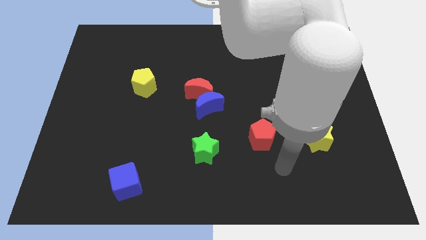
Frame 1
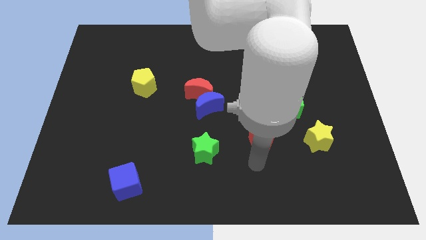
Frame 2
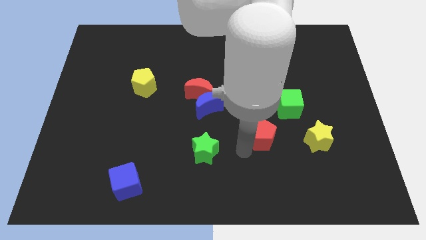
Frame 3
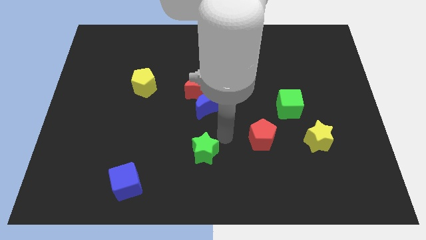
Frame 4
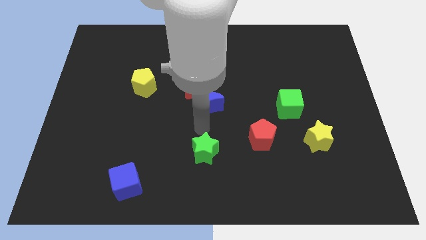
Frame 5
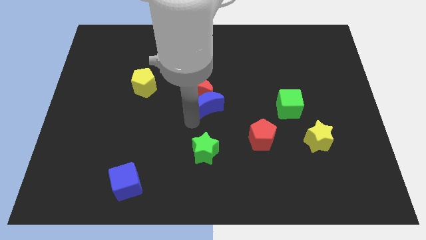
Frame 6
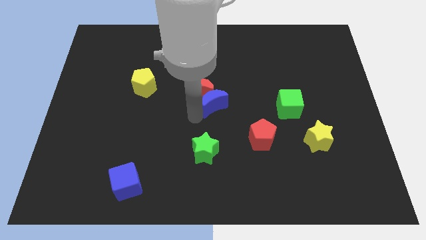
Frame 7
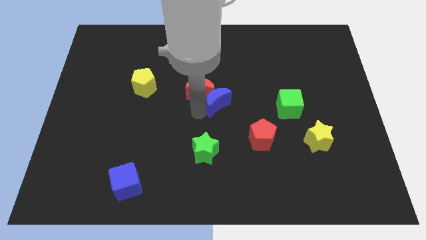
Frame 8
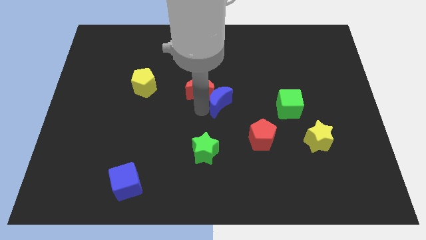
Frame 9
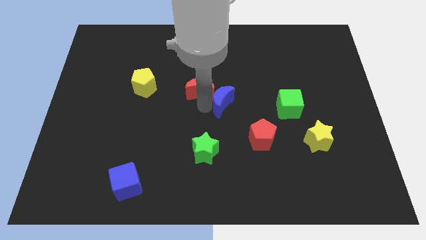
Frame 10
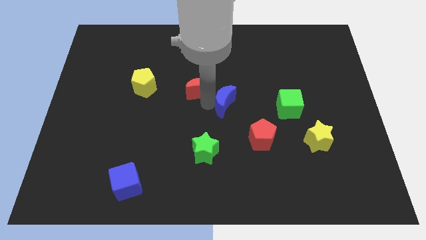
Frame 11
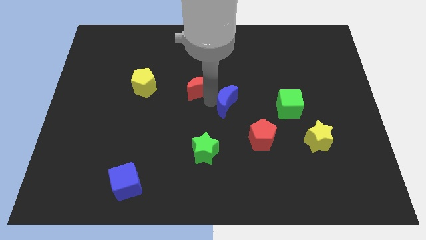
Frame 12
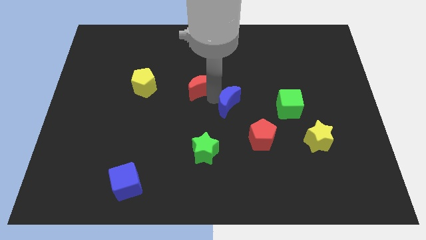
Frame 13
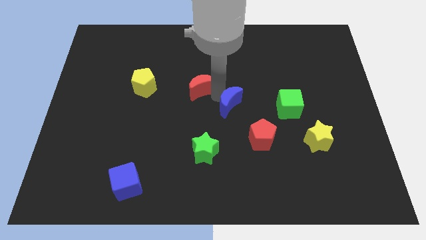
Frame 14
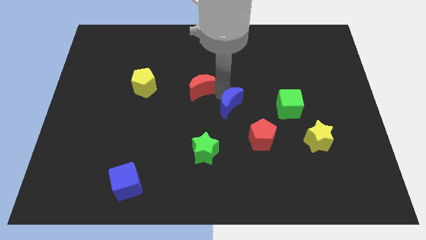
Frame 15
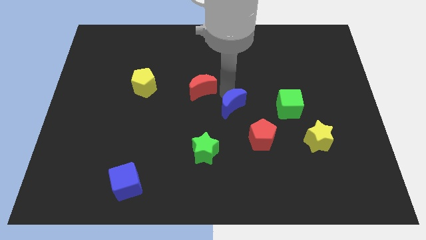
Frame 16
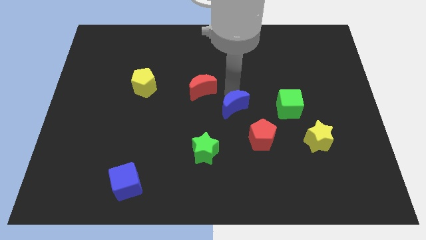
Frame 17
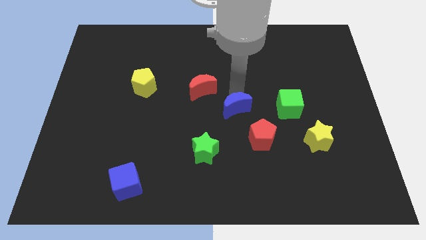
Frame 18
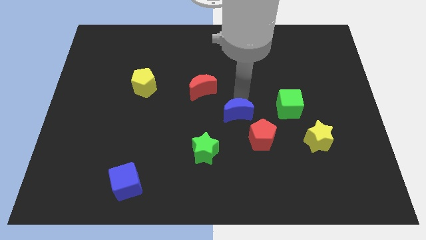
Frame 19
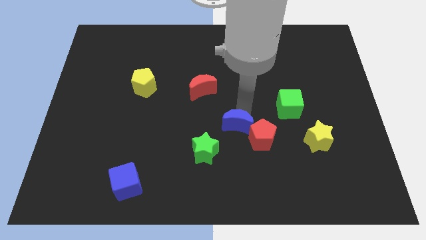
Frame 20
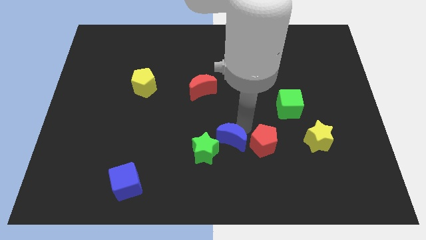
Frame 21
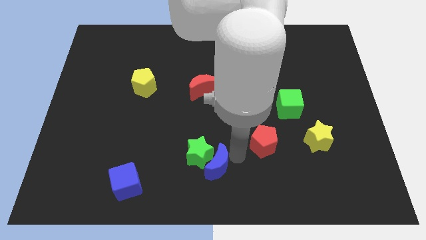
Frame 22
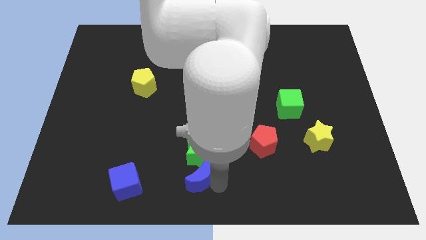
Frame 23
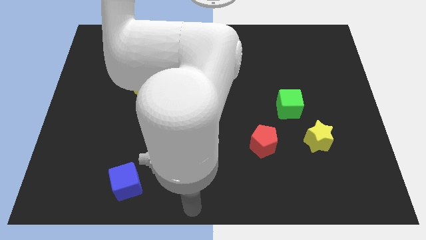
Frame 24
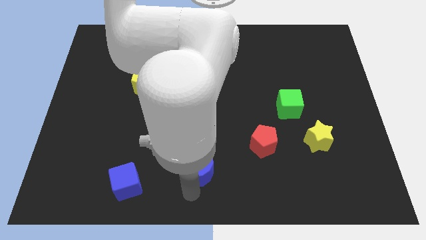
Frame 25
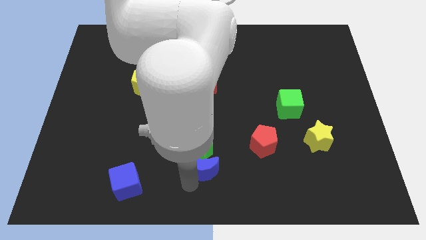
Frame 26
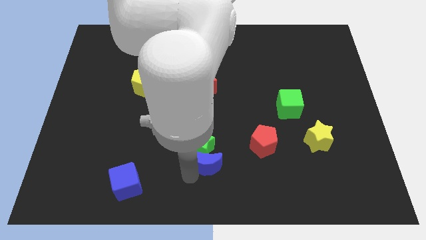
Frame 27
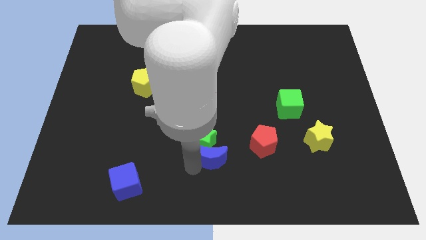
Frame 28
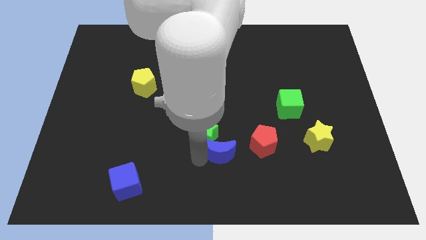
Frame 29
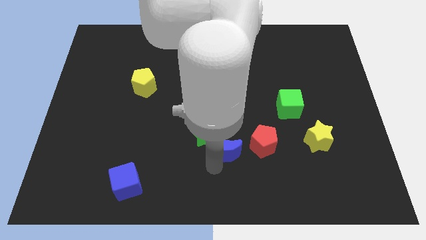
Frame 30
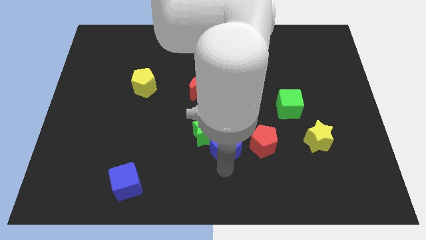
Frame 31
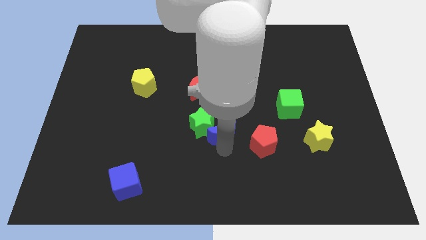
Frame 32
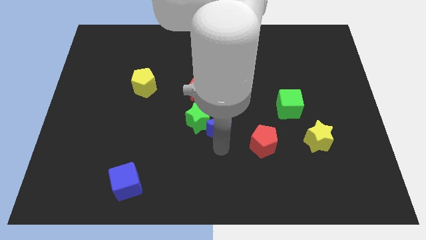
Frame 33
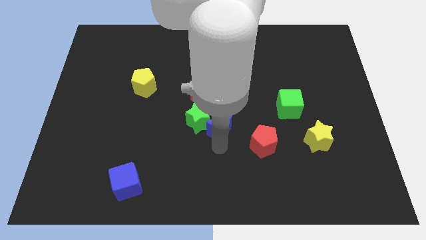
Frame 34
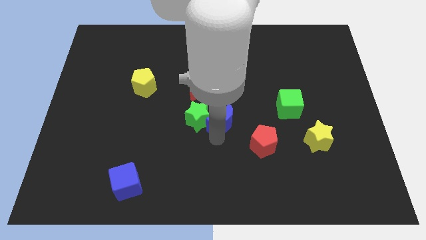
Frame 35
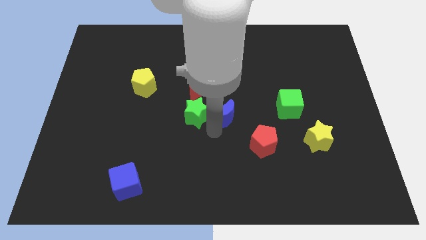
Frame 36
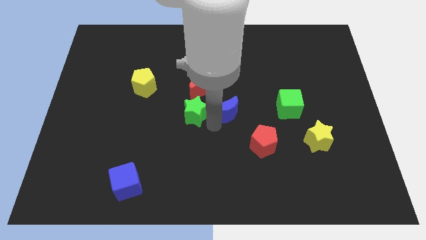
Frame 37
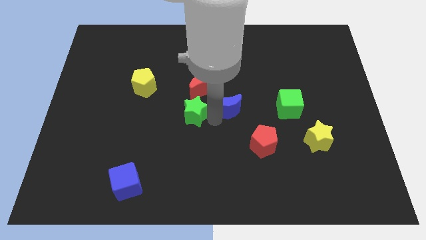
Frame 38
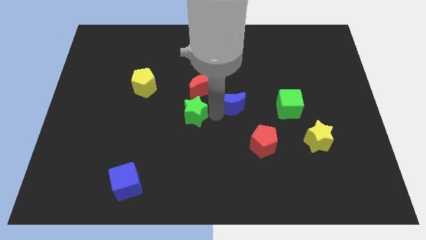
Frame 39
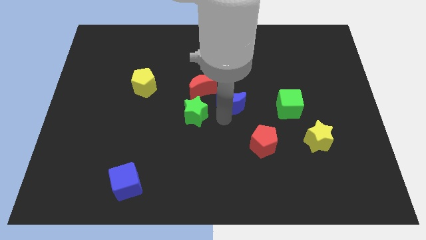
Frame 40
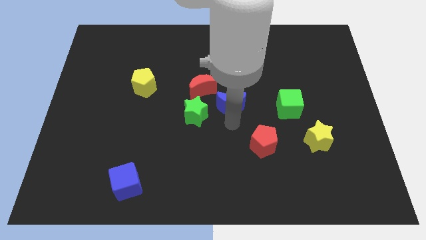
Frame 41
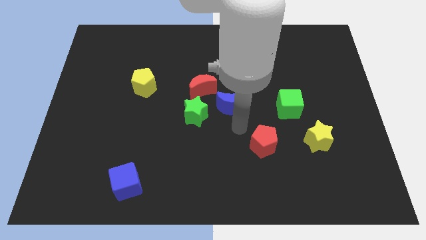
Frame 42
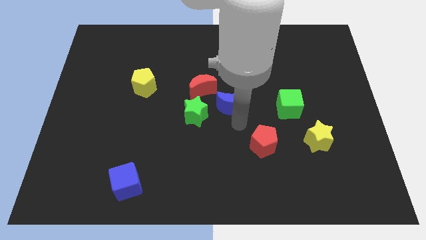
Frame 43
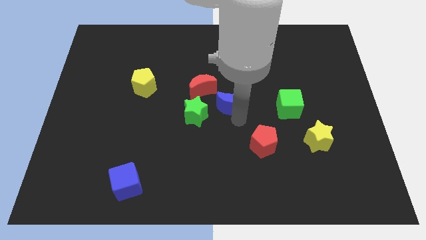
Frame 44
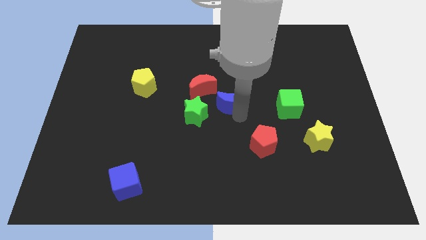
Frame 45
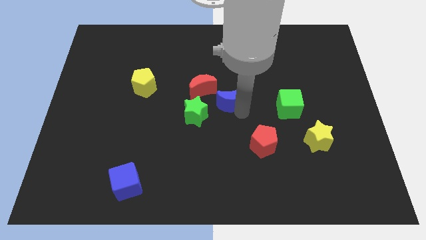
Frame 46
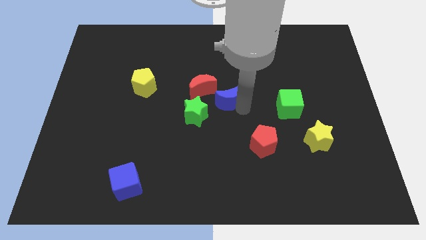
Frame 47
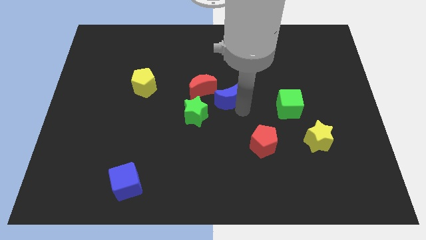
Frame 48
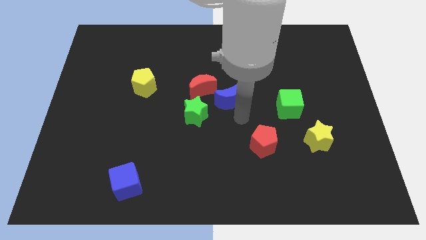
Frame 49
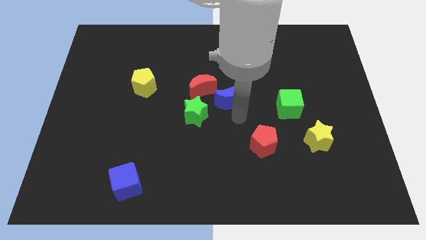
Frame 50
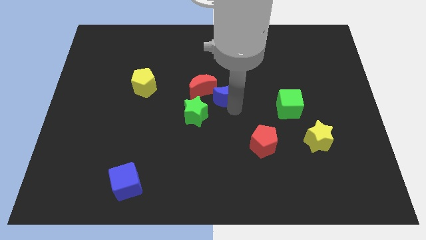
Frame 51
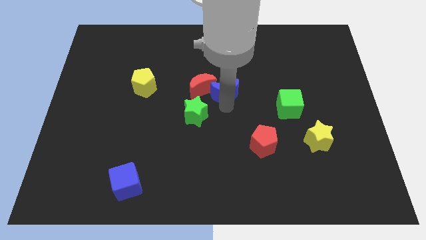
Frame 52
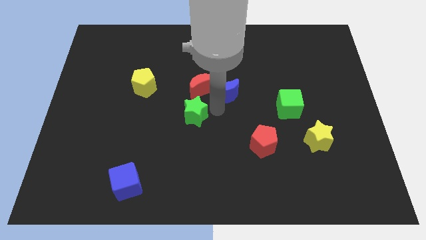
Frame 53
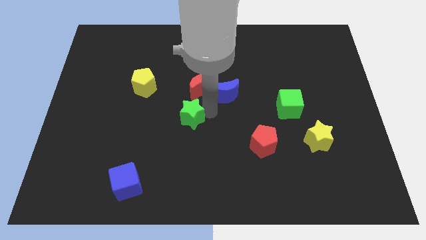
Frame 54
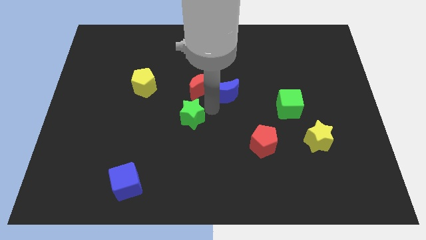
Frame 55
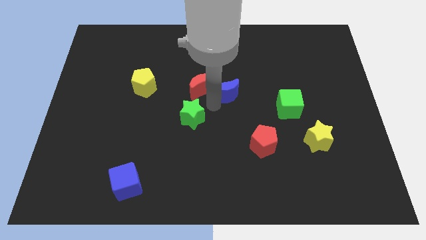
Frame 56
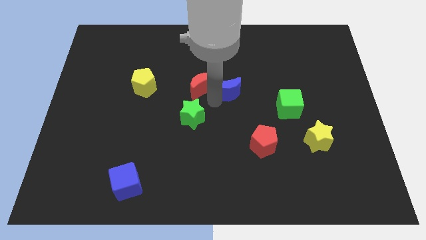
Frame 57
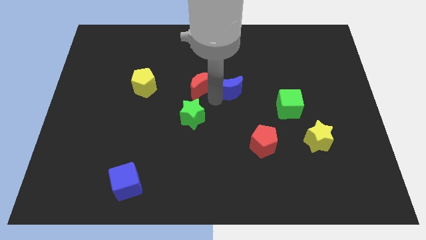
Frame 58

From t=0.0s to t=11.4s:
slightly slide the blue moon diagonally upwards and right

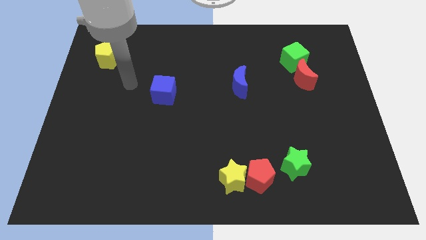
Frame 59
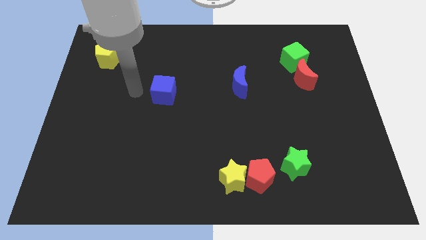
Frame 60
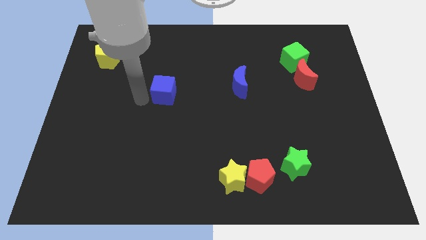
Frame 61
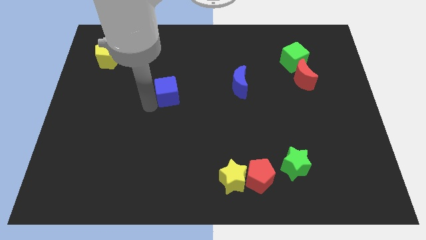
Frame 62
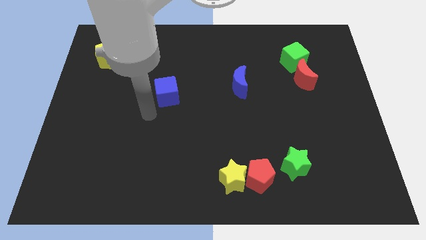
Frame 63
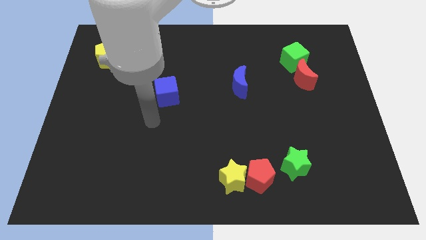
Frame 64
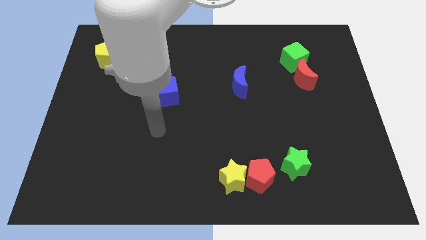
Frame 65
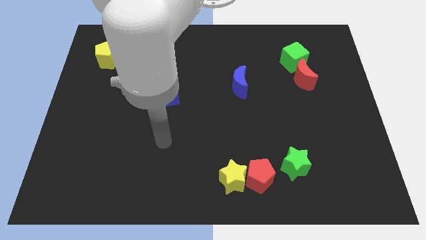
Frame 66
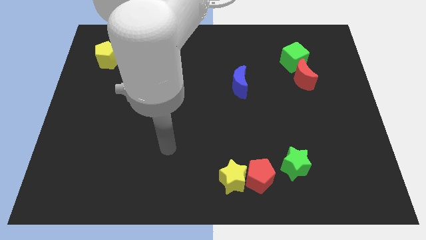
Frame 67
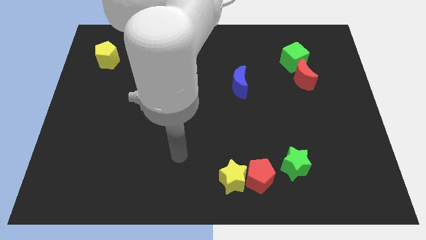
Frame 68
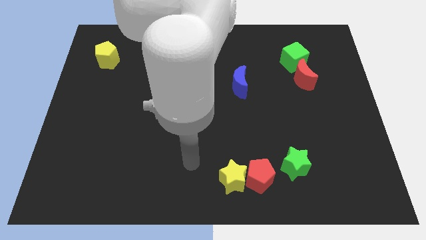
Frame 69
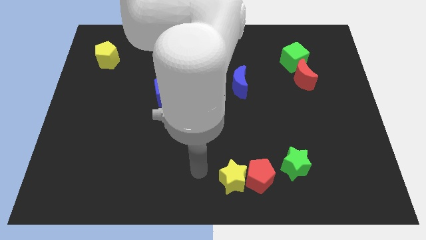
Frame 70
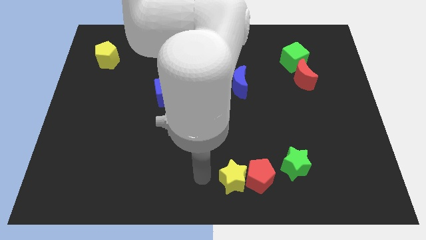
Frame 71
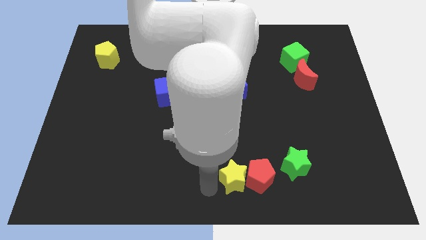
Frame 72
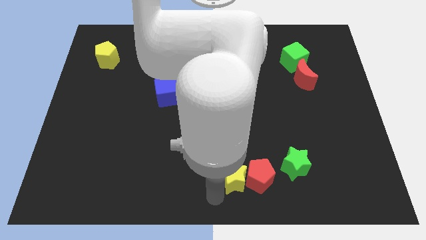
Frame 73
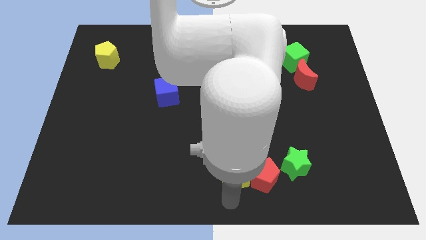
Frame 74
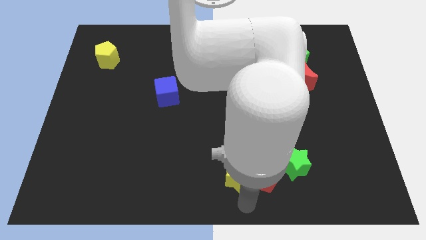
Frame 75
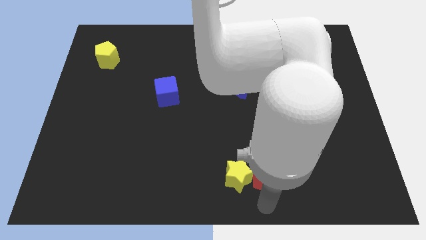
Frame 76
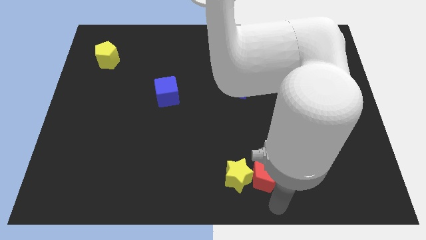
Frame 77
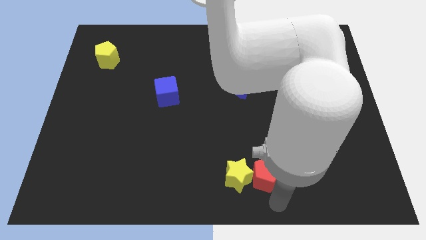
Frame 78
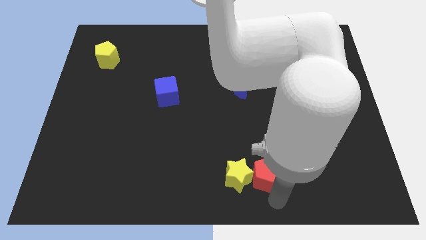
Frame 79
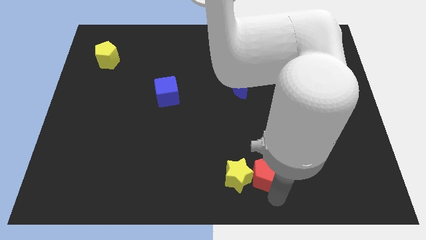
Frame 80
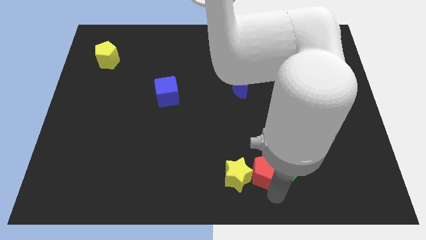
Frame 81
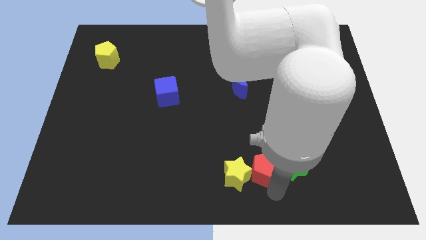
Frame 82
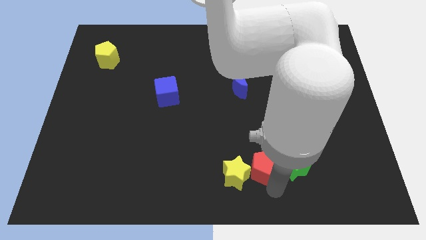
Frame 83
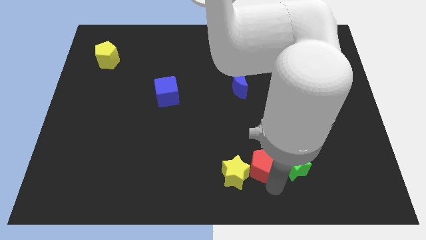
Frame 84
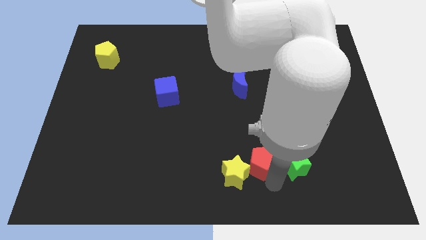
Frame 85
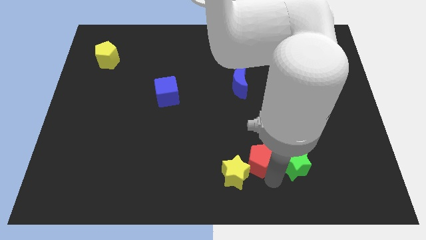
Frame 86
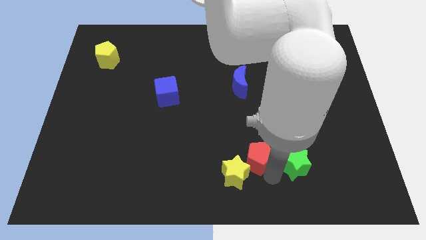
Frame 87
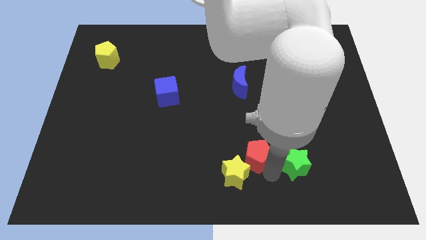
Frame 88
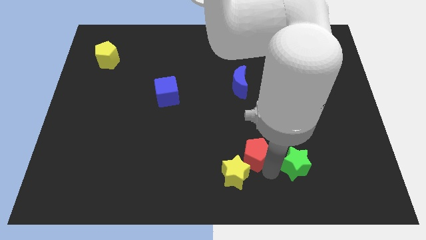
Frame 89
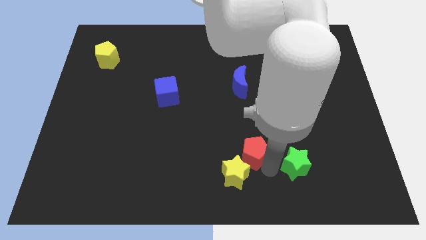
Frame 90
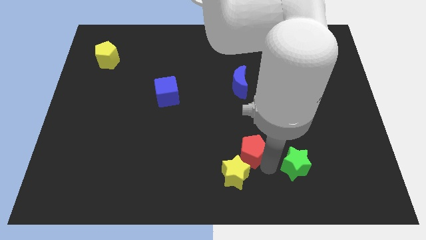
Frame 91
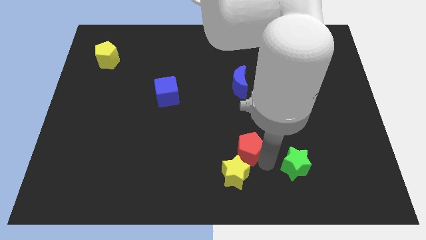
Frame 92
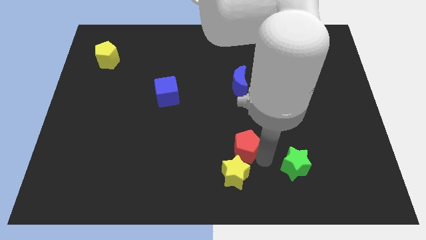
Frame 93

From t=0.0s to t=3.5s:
slightly push the red pentagon upwards
